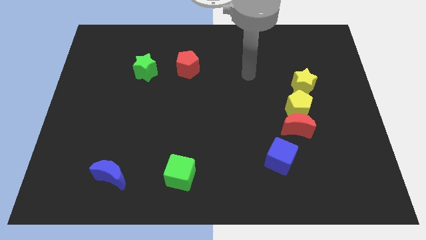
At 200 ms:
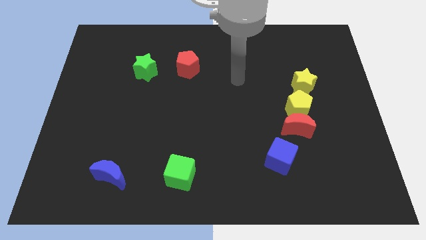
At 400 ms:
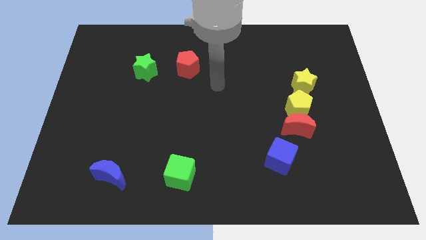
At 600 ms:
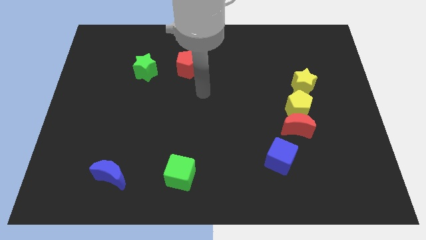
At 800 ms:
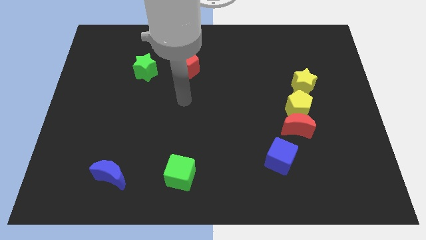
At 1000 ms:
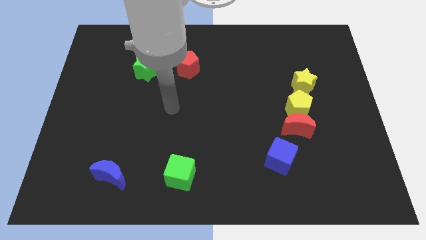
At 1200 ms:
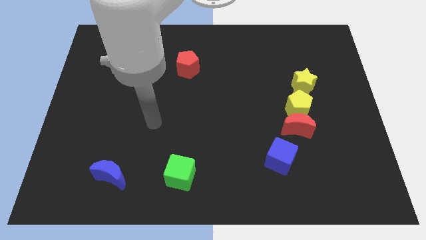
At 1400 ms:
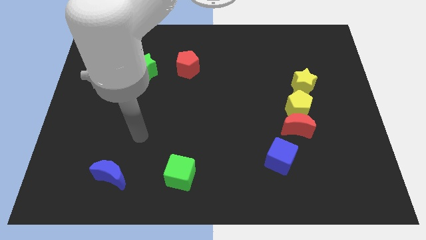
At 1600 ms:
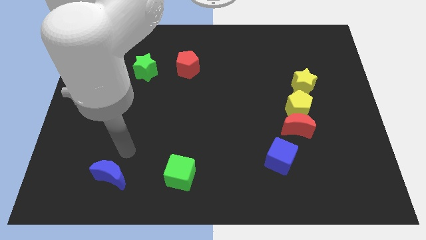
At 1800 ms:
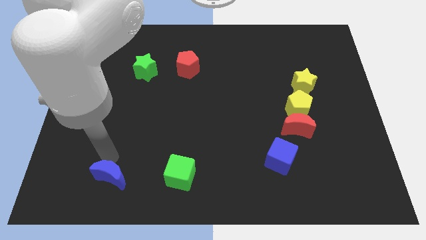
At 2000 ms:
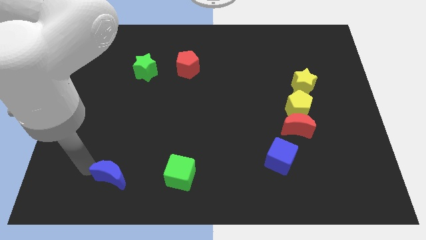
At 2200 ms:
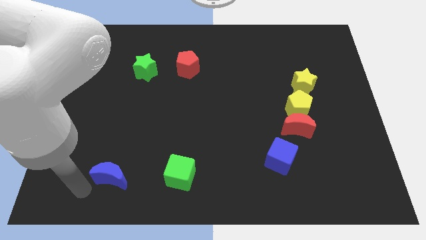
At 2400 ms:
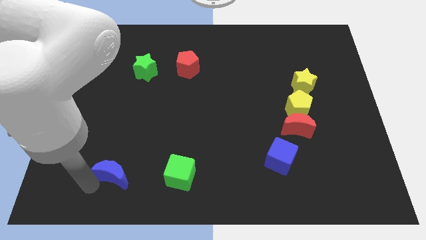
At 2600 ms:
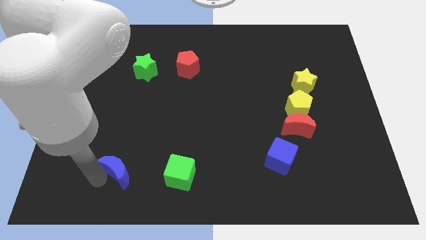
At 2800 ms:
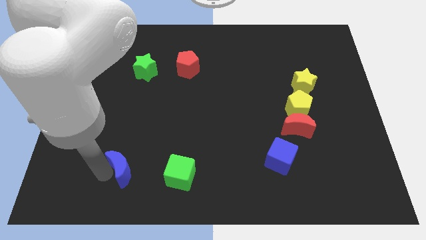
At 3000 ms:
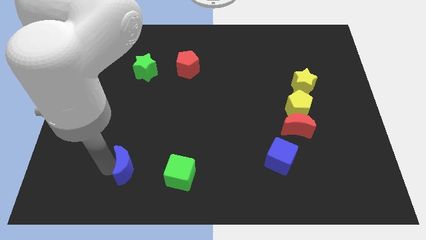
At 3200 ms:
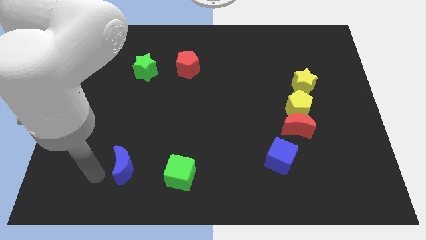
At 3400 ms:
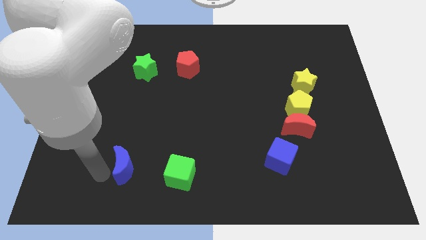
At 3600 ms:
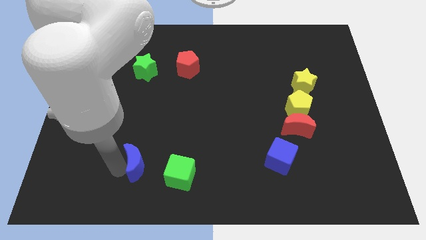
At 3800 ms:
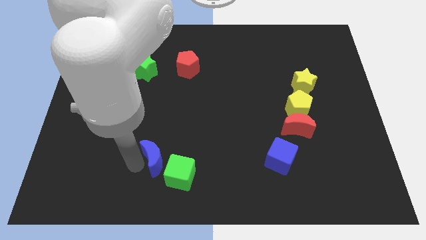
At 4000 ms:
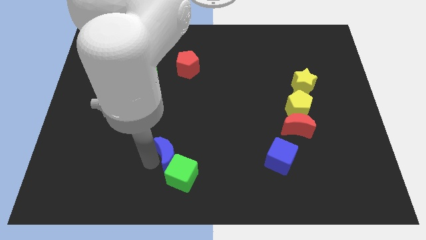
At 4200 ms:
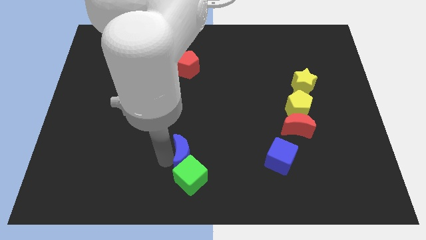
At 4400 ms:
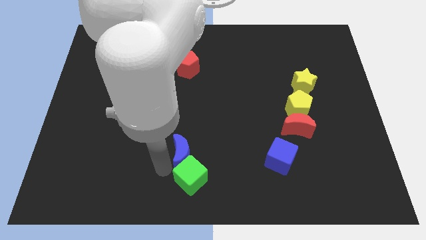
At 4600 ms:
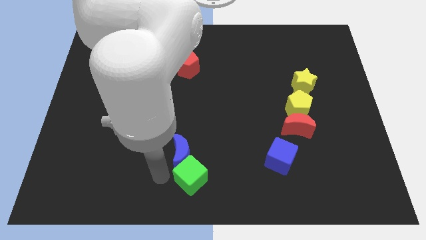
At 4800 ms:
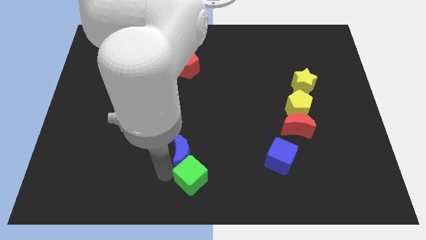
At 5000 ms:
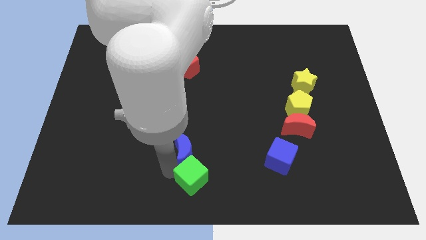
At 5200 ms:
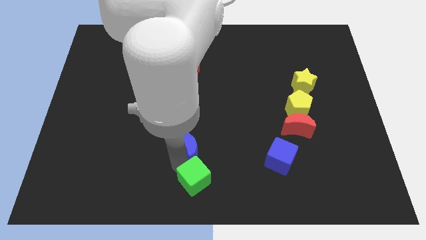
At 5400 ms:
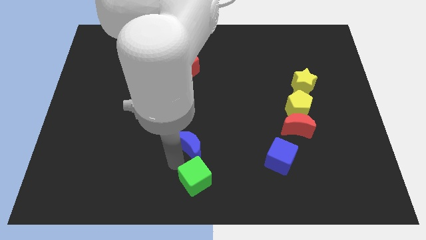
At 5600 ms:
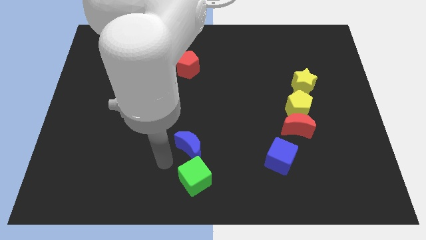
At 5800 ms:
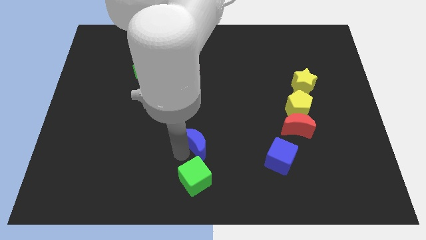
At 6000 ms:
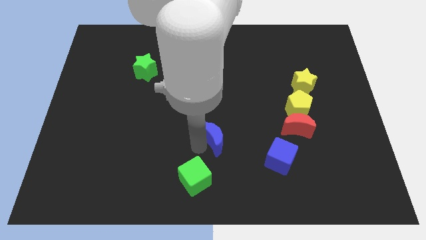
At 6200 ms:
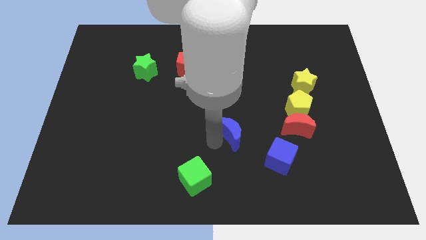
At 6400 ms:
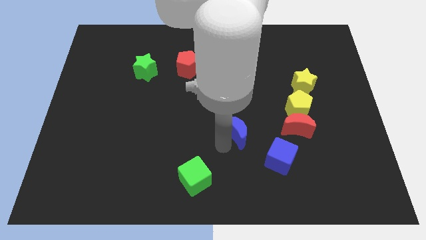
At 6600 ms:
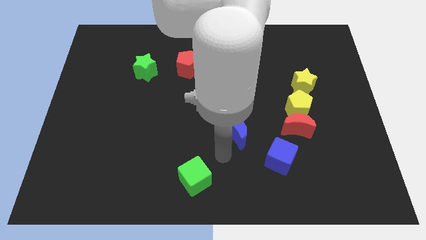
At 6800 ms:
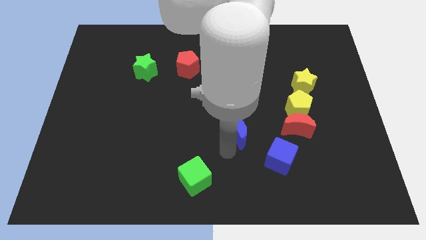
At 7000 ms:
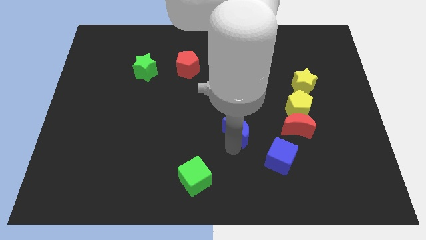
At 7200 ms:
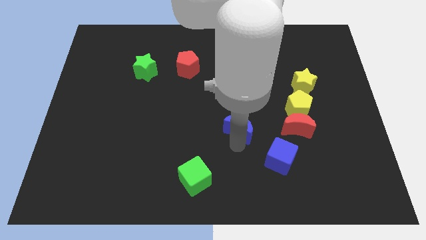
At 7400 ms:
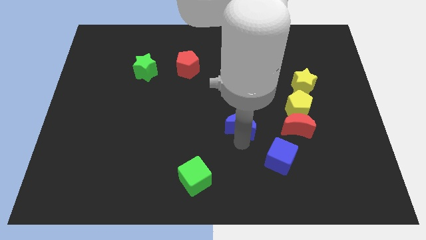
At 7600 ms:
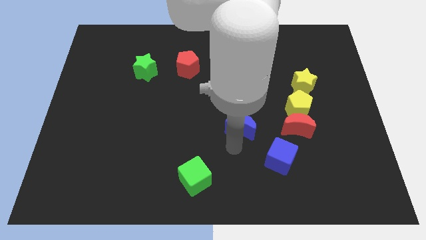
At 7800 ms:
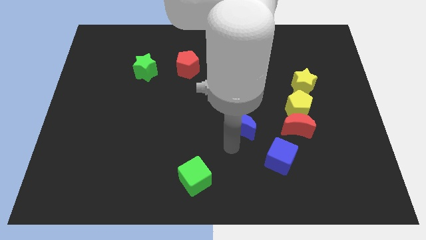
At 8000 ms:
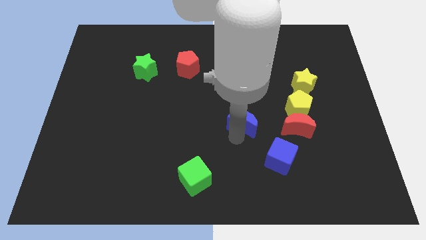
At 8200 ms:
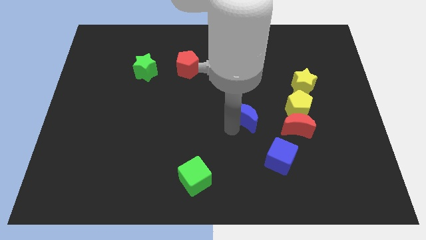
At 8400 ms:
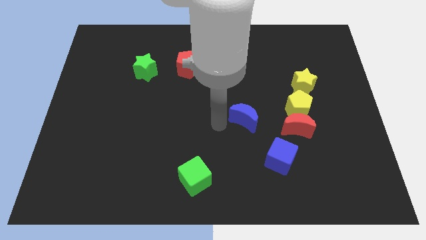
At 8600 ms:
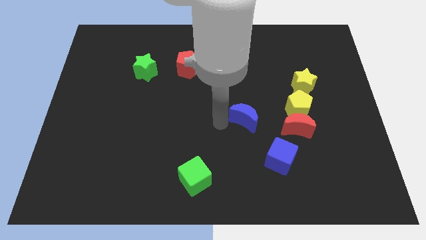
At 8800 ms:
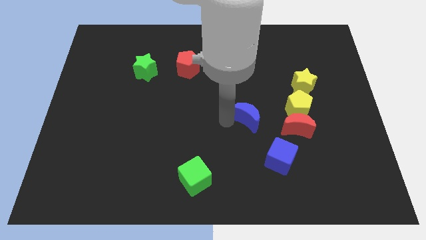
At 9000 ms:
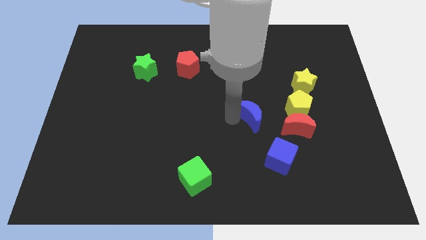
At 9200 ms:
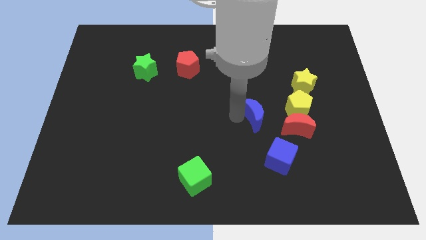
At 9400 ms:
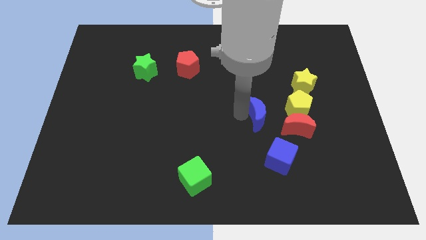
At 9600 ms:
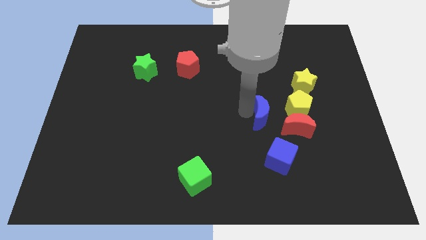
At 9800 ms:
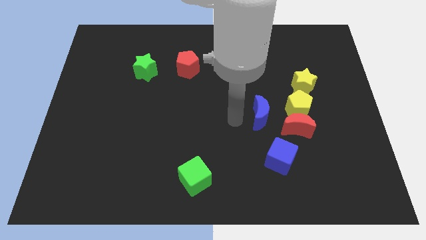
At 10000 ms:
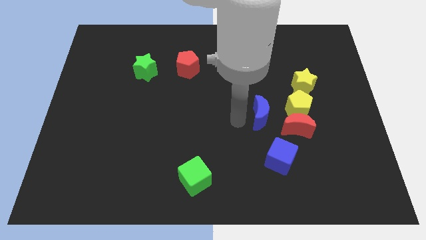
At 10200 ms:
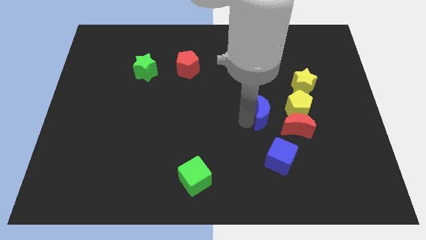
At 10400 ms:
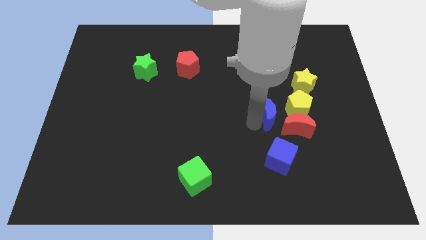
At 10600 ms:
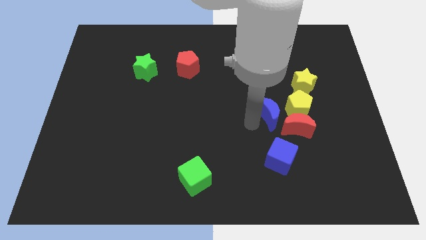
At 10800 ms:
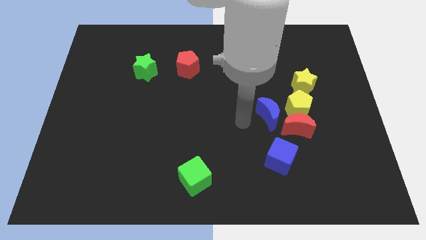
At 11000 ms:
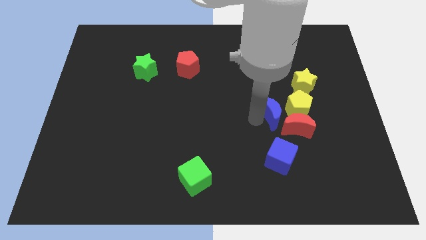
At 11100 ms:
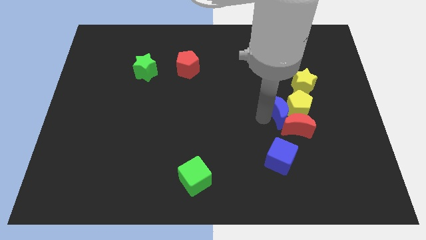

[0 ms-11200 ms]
move the blue moon to the yellow pentagon

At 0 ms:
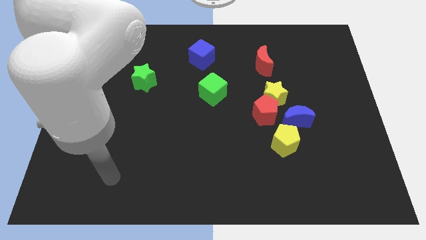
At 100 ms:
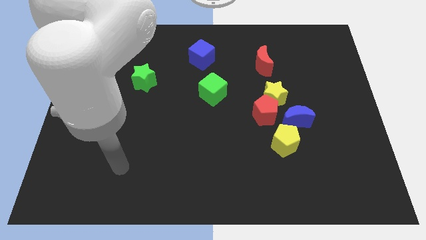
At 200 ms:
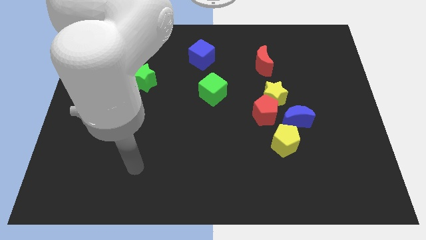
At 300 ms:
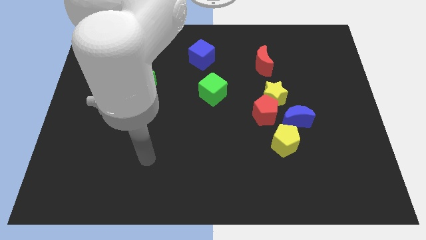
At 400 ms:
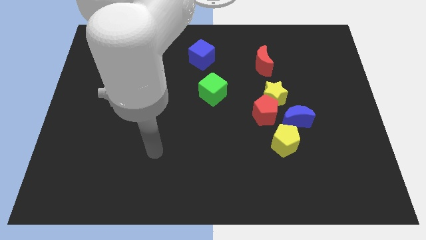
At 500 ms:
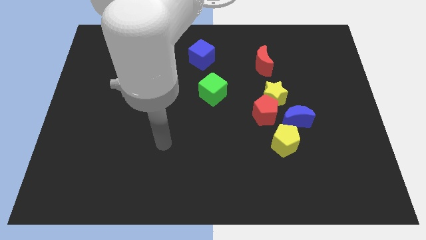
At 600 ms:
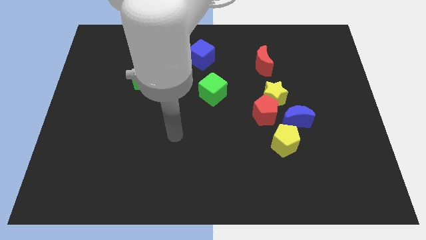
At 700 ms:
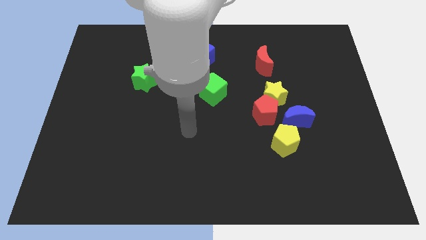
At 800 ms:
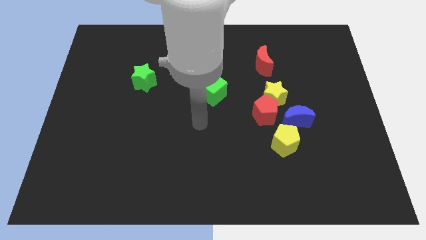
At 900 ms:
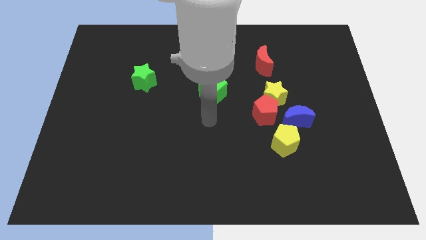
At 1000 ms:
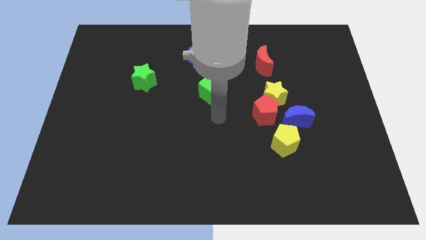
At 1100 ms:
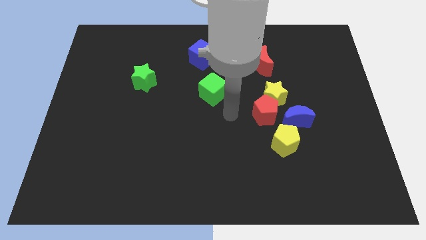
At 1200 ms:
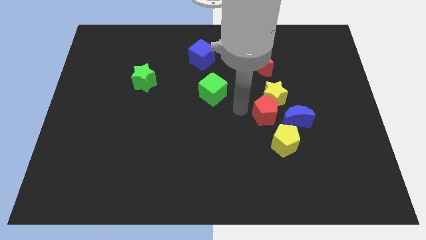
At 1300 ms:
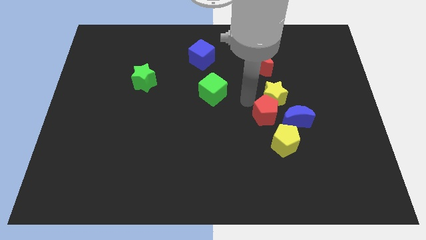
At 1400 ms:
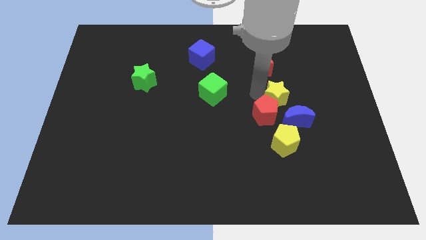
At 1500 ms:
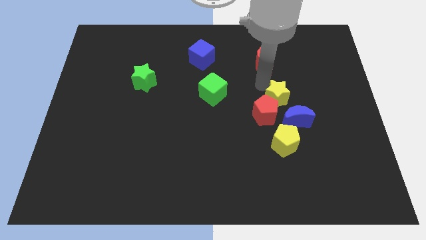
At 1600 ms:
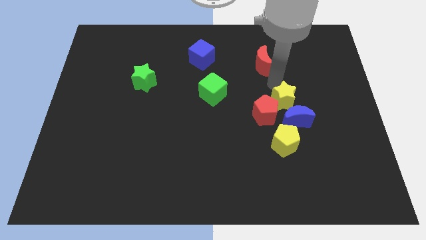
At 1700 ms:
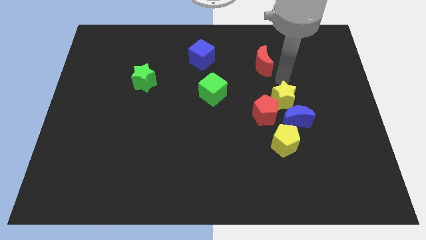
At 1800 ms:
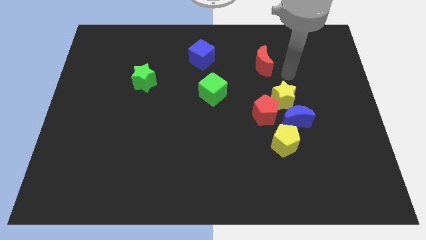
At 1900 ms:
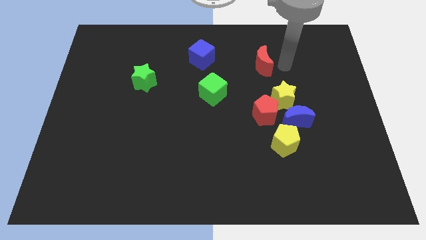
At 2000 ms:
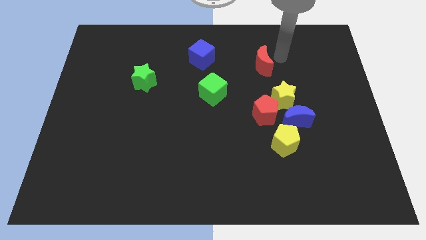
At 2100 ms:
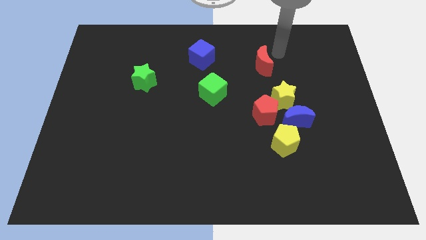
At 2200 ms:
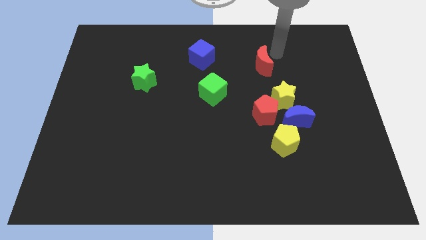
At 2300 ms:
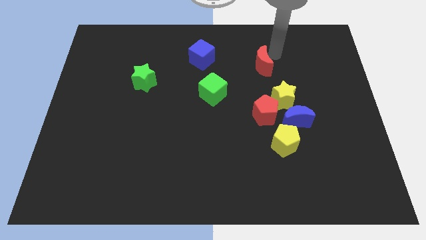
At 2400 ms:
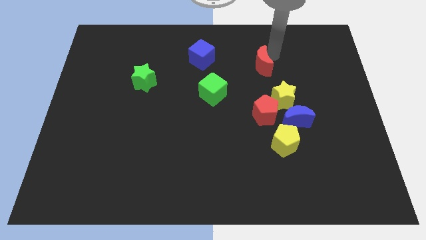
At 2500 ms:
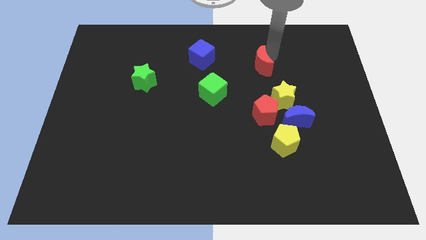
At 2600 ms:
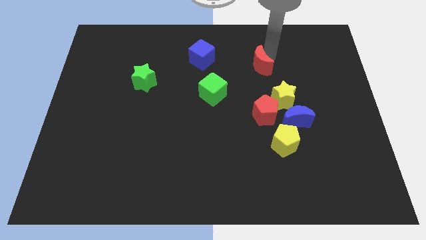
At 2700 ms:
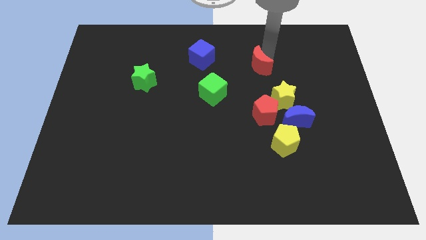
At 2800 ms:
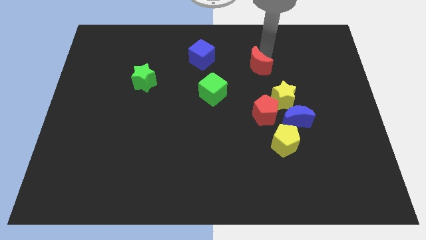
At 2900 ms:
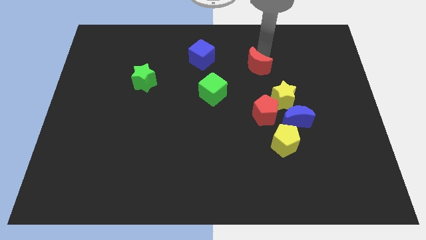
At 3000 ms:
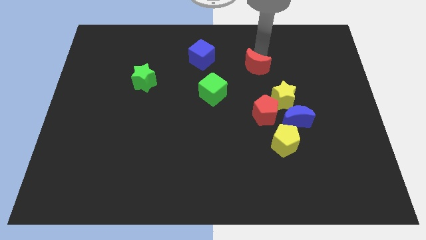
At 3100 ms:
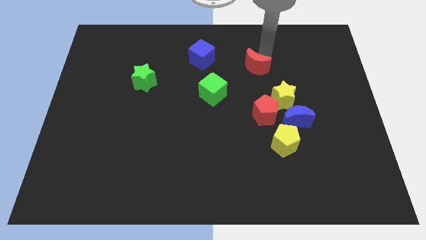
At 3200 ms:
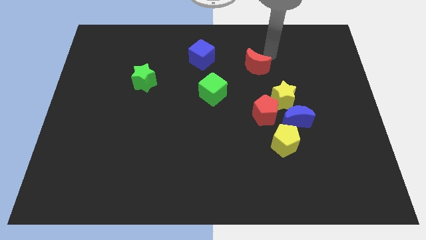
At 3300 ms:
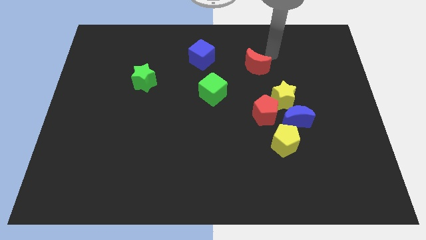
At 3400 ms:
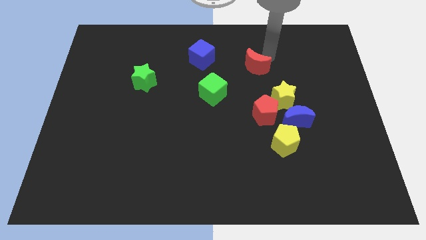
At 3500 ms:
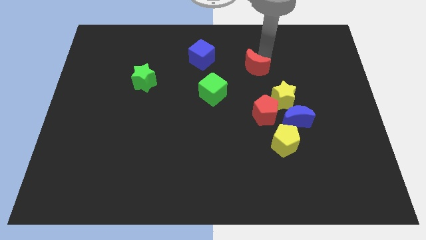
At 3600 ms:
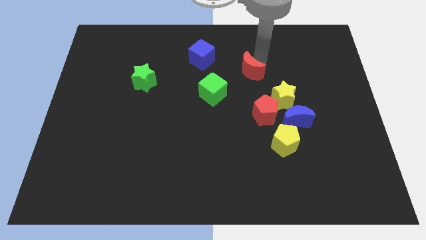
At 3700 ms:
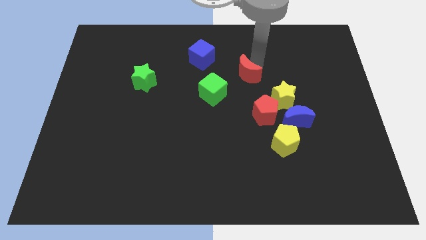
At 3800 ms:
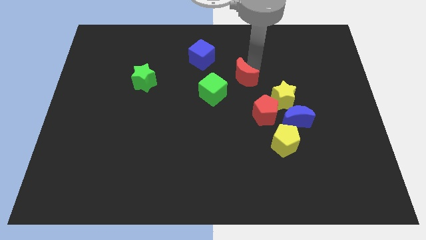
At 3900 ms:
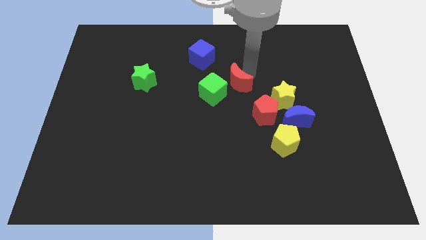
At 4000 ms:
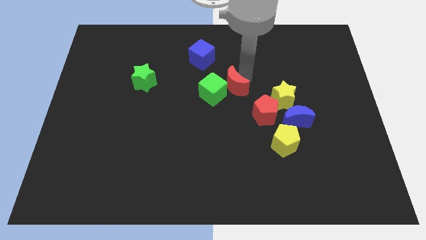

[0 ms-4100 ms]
slide the red moon towards the green cube
